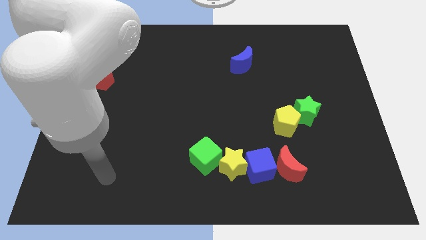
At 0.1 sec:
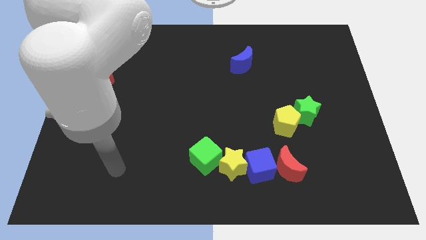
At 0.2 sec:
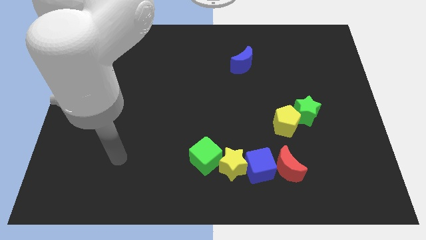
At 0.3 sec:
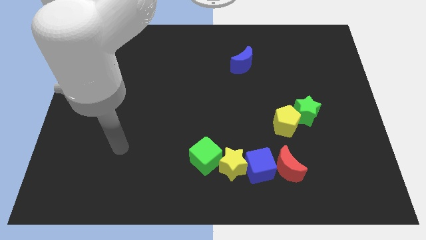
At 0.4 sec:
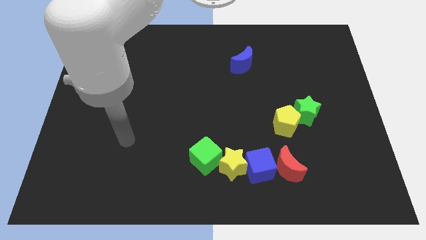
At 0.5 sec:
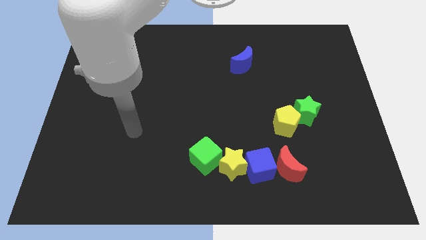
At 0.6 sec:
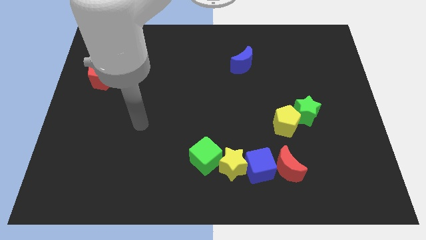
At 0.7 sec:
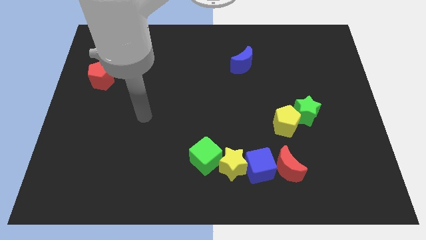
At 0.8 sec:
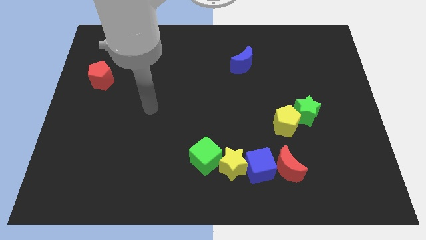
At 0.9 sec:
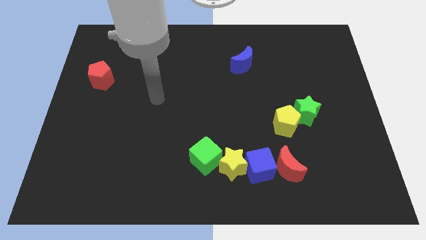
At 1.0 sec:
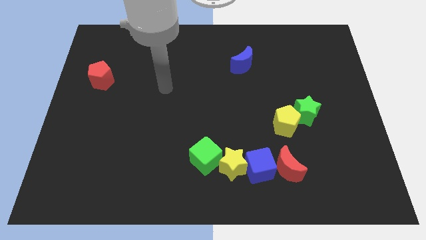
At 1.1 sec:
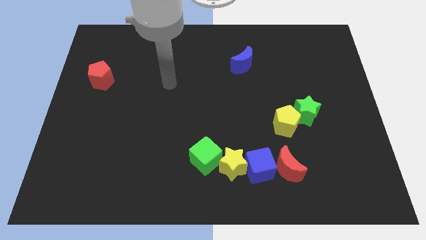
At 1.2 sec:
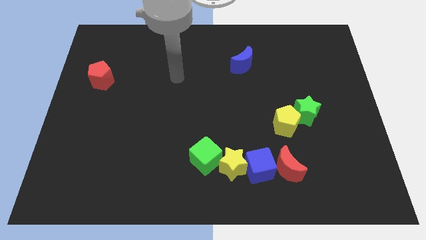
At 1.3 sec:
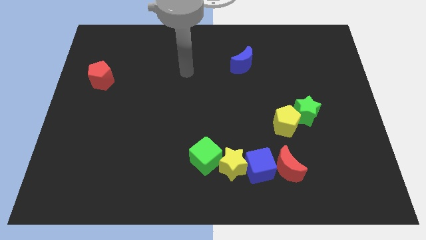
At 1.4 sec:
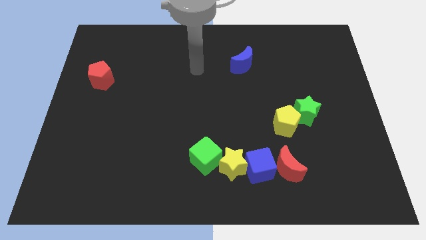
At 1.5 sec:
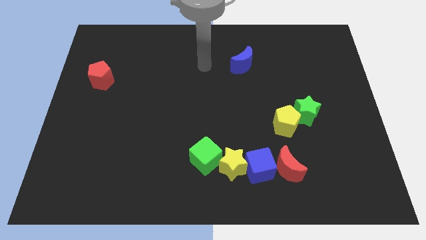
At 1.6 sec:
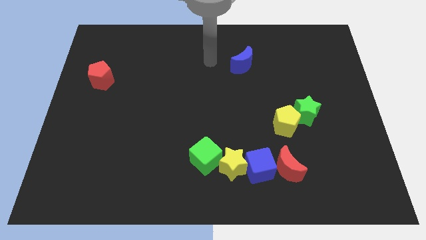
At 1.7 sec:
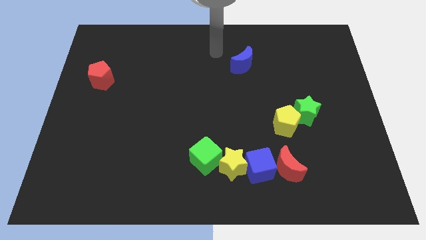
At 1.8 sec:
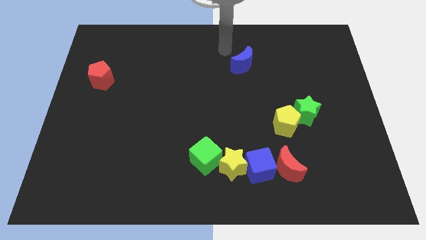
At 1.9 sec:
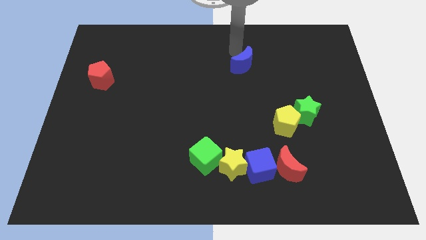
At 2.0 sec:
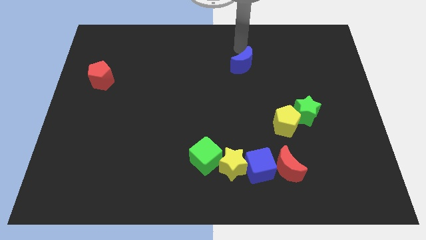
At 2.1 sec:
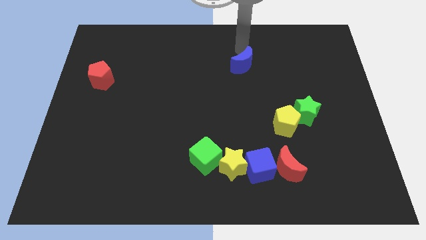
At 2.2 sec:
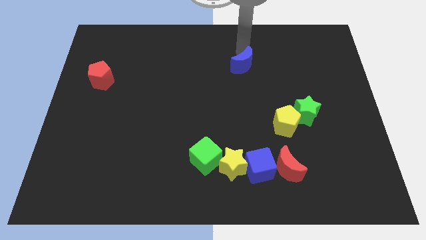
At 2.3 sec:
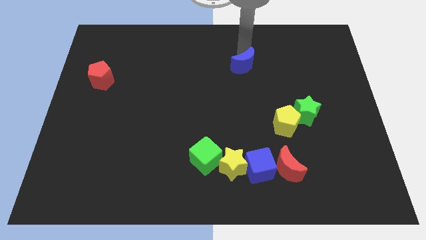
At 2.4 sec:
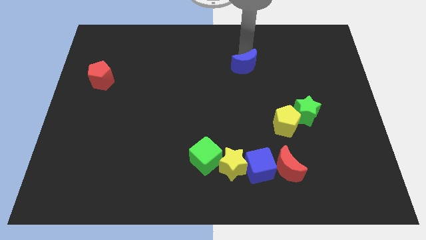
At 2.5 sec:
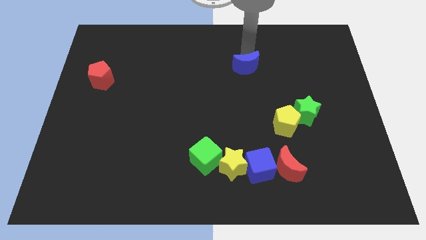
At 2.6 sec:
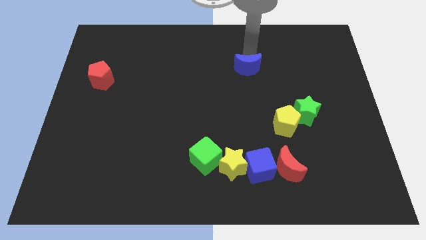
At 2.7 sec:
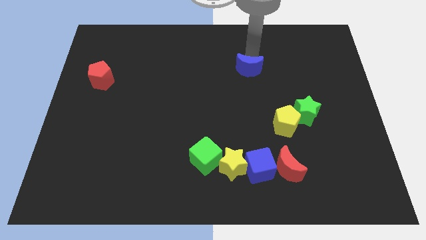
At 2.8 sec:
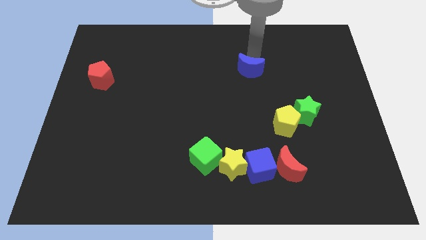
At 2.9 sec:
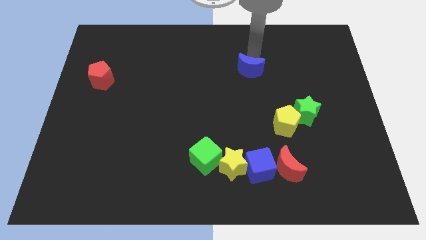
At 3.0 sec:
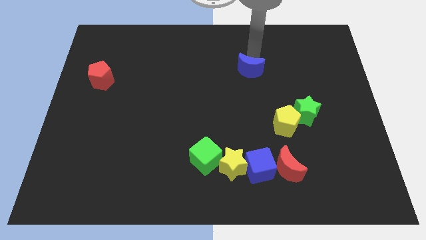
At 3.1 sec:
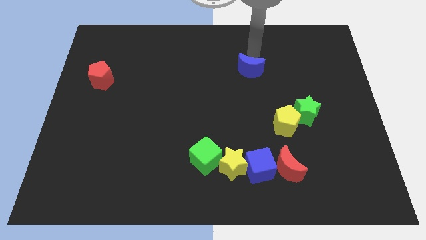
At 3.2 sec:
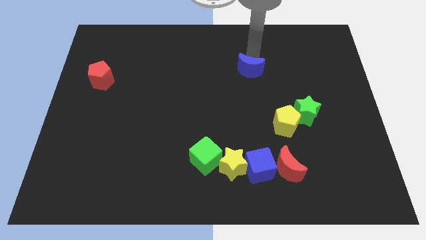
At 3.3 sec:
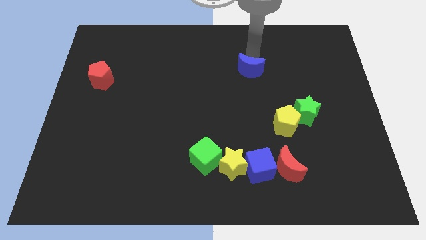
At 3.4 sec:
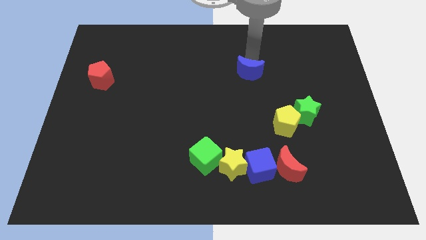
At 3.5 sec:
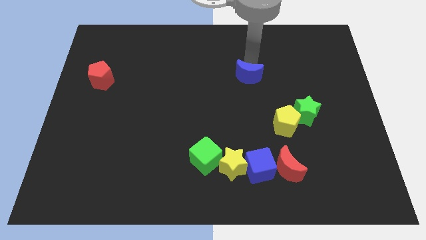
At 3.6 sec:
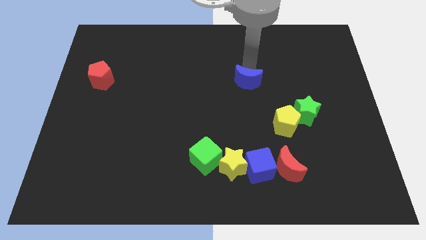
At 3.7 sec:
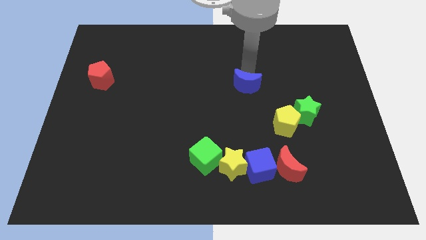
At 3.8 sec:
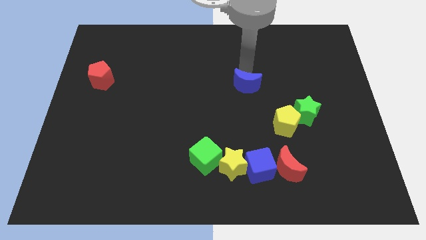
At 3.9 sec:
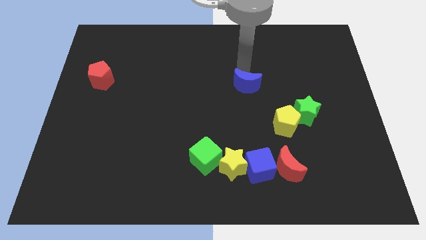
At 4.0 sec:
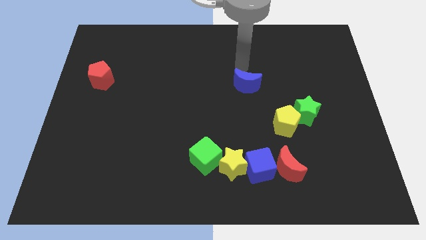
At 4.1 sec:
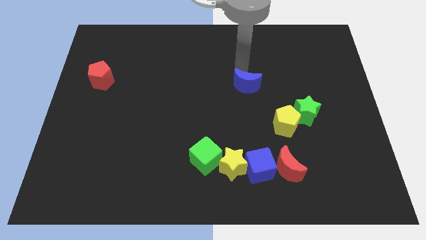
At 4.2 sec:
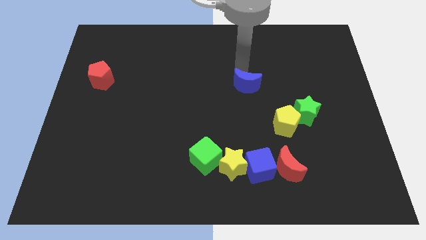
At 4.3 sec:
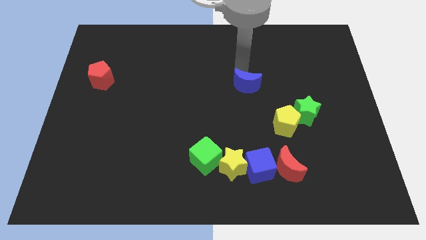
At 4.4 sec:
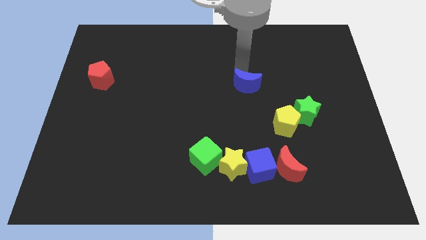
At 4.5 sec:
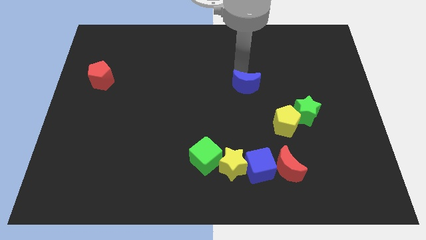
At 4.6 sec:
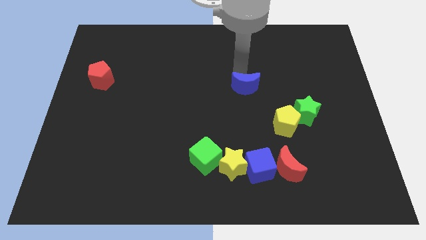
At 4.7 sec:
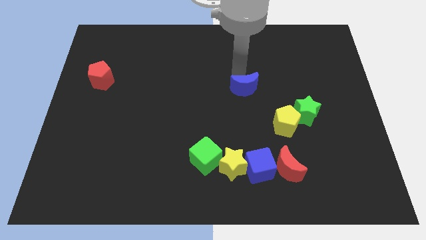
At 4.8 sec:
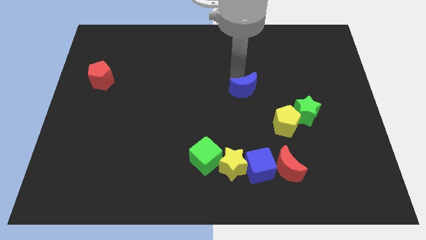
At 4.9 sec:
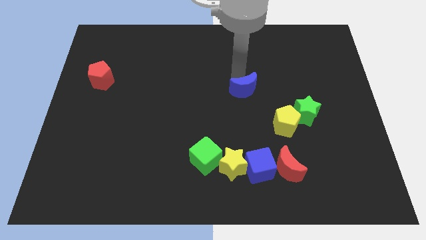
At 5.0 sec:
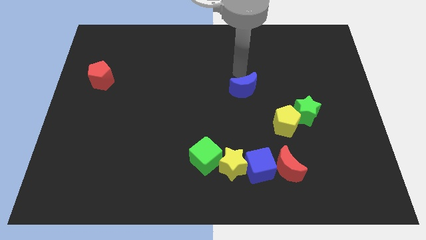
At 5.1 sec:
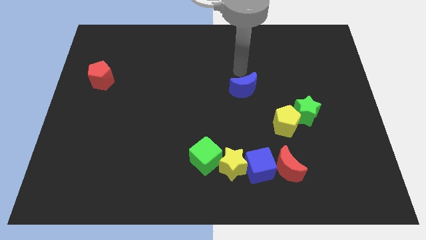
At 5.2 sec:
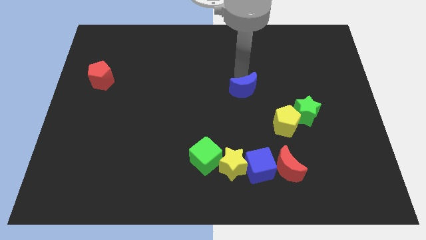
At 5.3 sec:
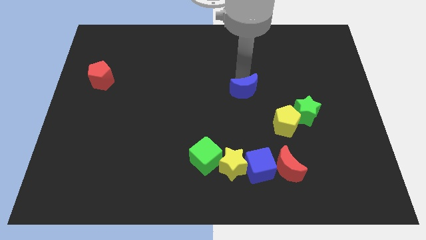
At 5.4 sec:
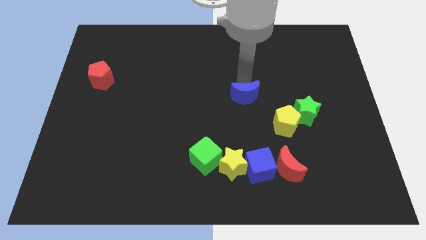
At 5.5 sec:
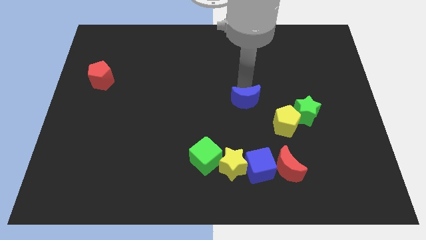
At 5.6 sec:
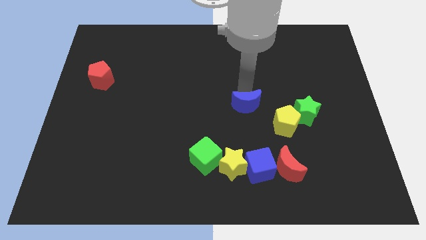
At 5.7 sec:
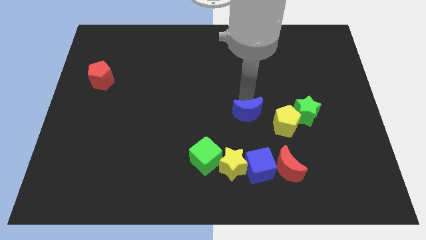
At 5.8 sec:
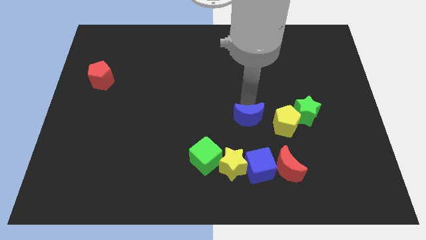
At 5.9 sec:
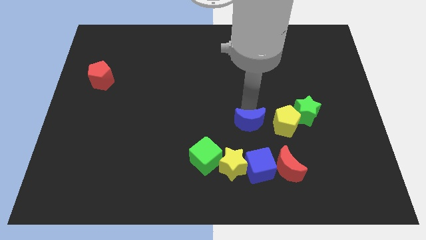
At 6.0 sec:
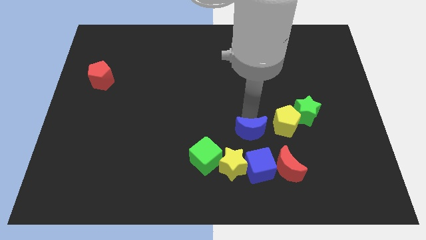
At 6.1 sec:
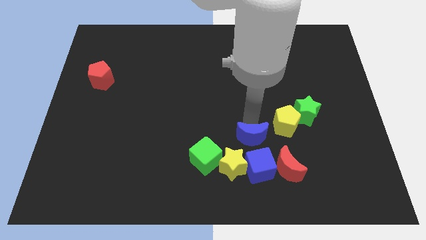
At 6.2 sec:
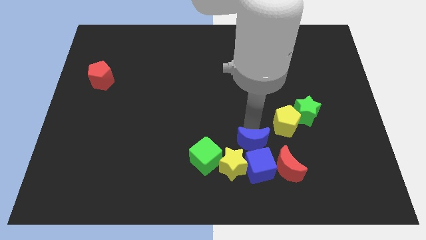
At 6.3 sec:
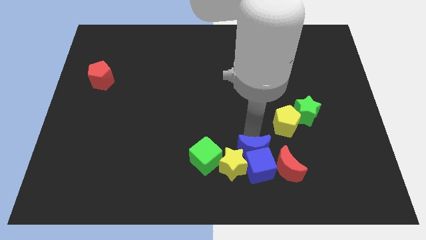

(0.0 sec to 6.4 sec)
move the blue moon towards the blue cube
